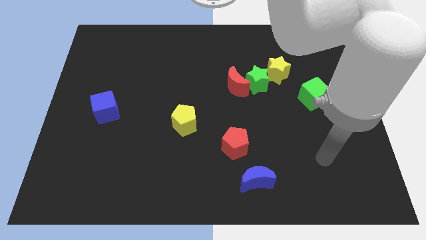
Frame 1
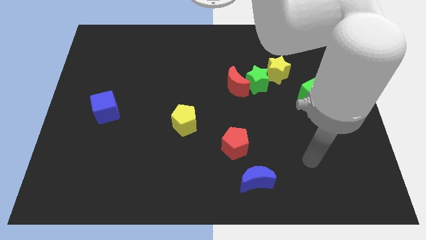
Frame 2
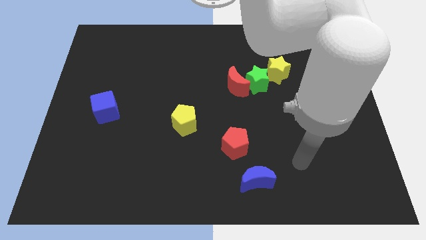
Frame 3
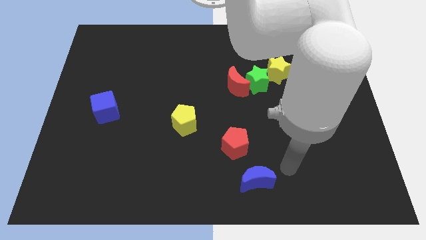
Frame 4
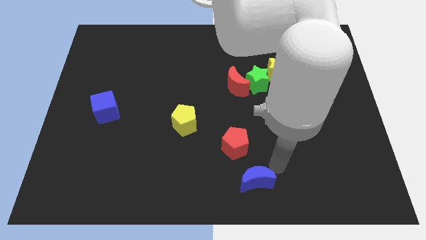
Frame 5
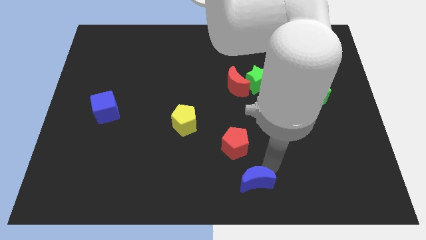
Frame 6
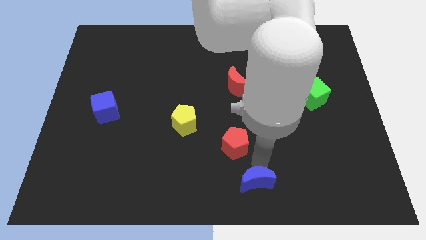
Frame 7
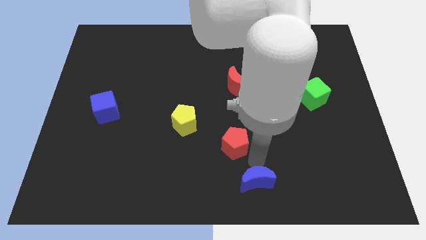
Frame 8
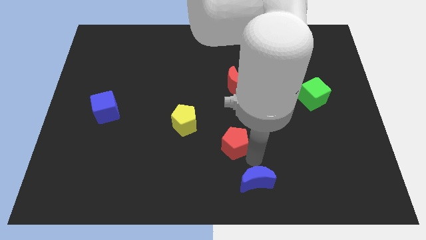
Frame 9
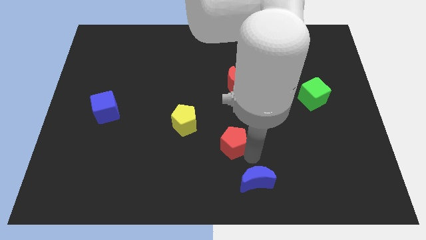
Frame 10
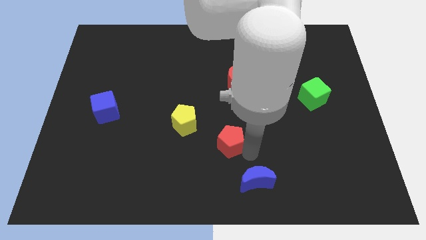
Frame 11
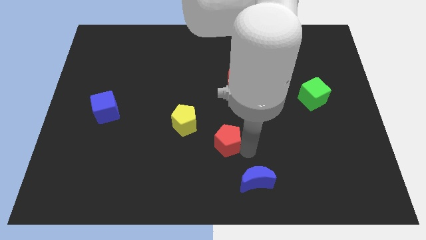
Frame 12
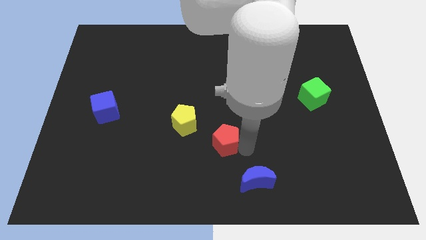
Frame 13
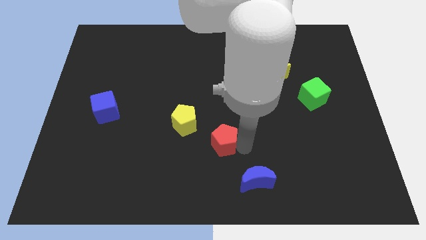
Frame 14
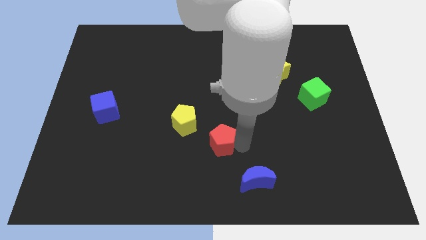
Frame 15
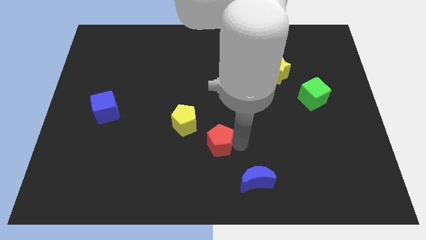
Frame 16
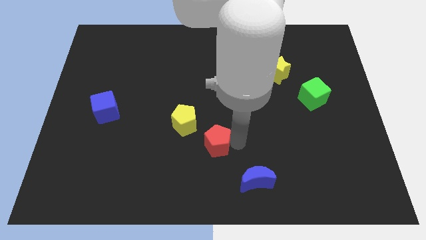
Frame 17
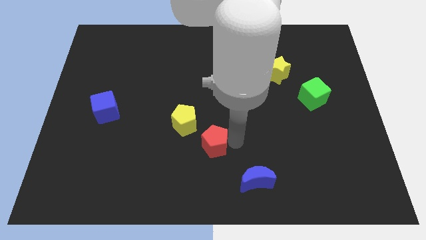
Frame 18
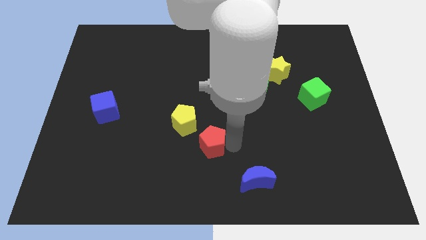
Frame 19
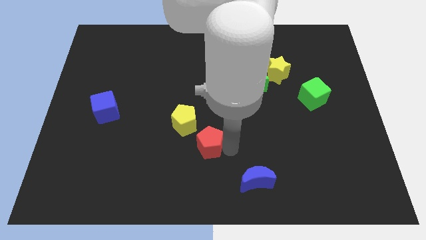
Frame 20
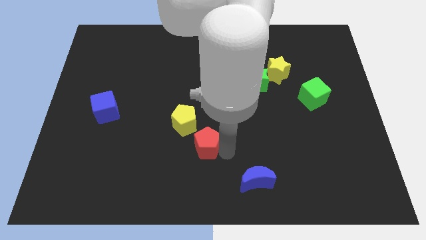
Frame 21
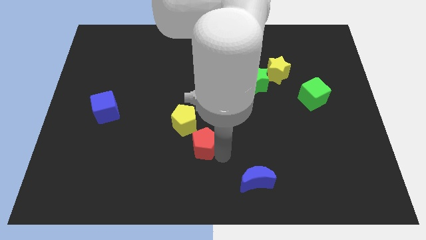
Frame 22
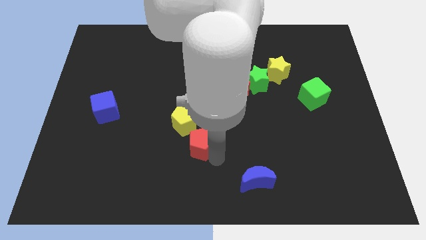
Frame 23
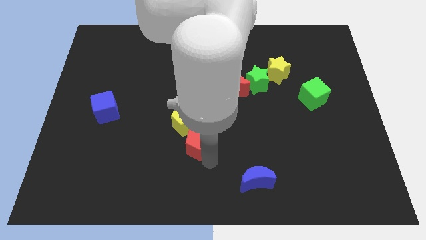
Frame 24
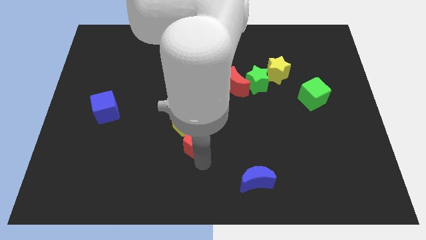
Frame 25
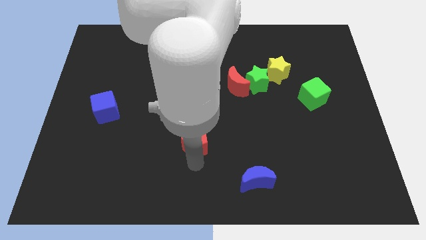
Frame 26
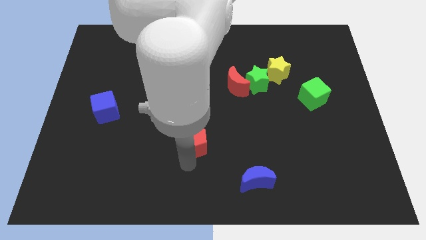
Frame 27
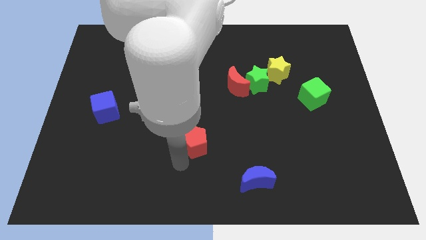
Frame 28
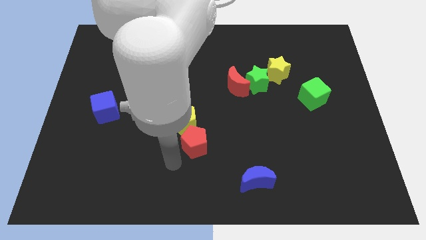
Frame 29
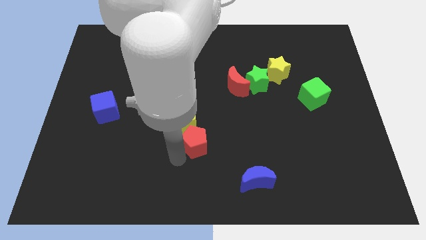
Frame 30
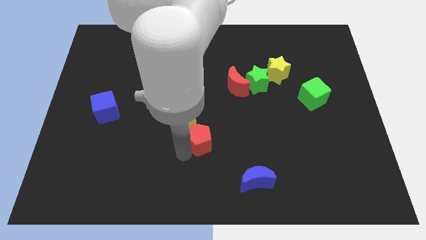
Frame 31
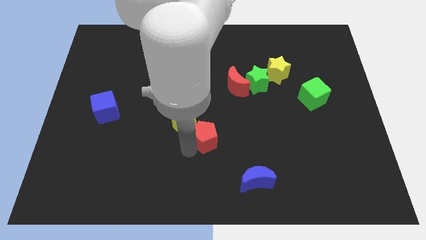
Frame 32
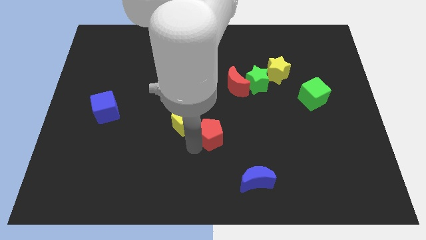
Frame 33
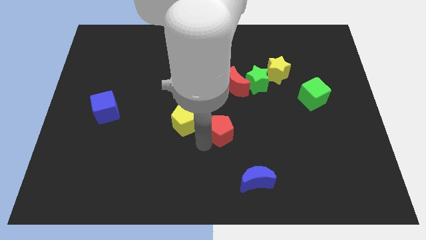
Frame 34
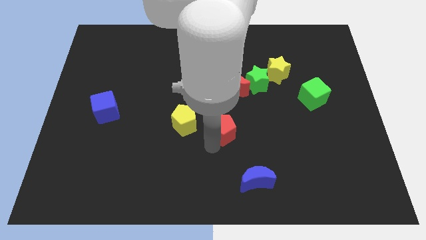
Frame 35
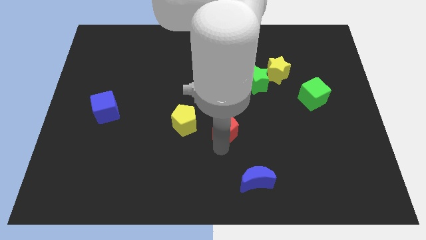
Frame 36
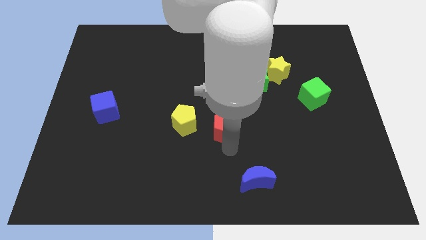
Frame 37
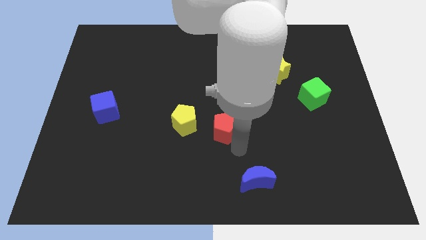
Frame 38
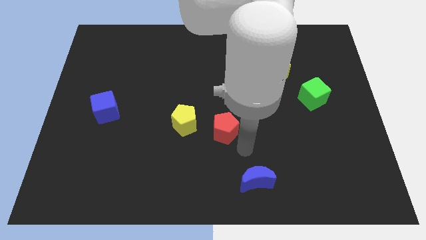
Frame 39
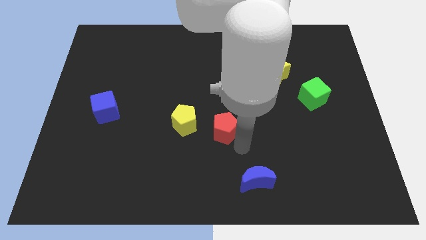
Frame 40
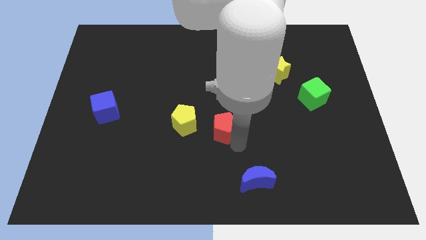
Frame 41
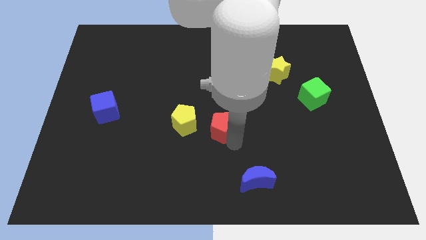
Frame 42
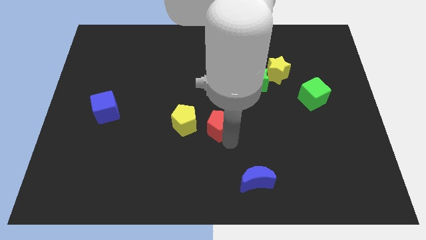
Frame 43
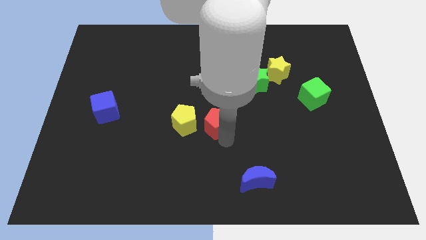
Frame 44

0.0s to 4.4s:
push the red pentagon a bit upwards and then to the left

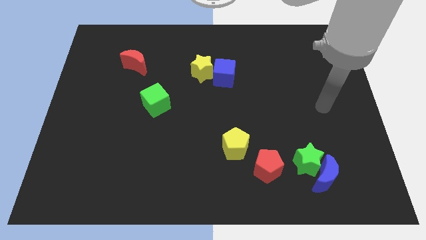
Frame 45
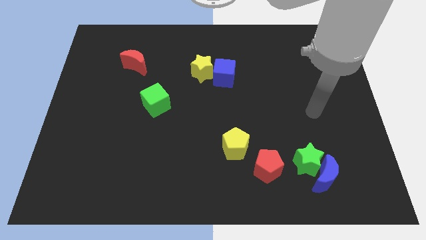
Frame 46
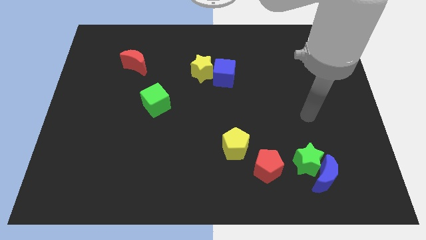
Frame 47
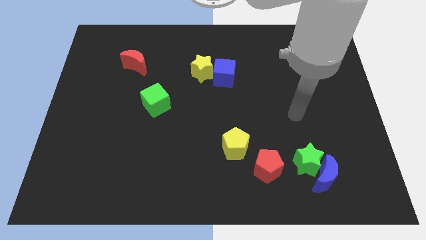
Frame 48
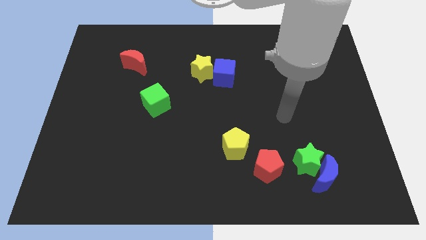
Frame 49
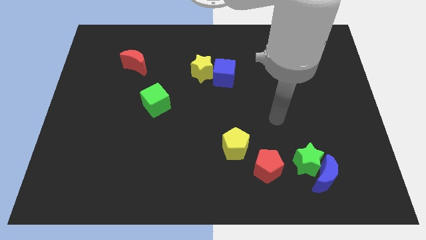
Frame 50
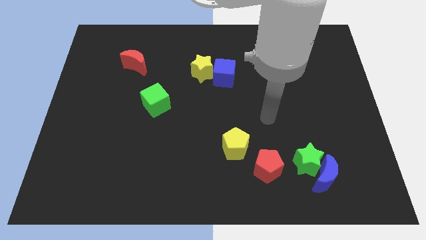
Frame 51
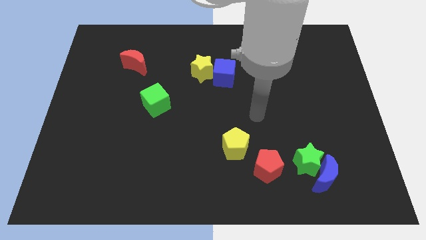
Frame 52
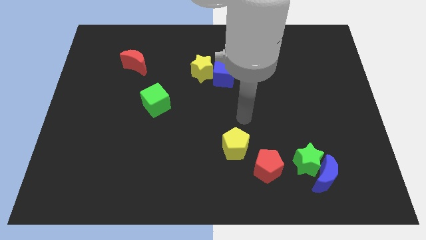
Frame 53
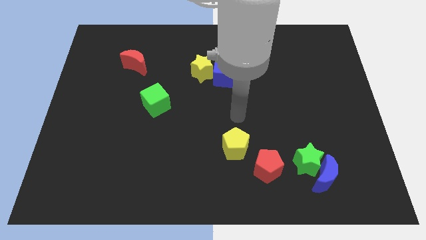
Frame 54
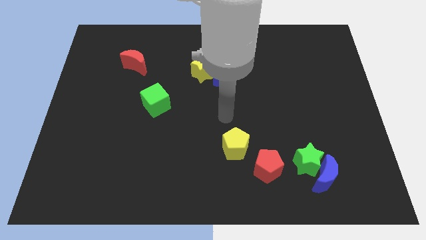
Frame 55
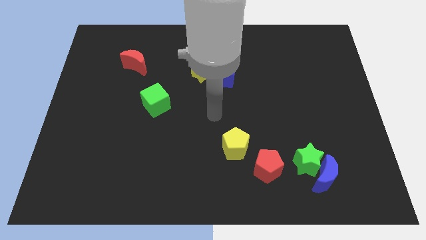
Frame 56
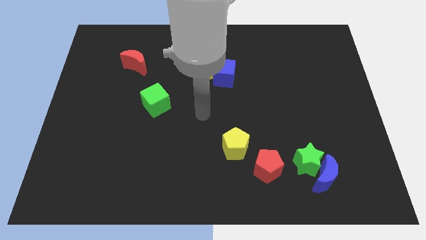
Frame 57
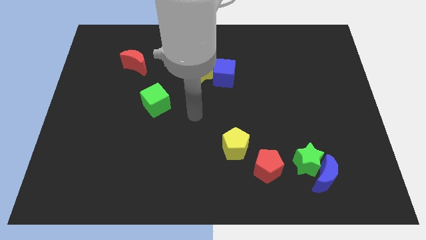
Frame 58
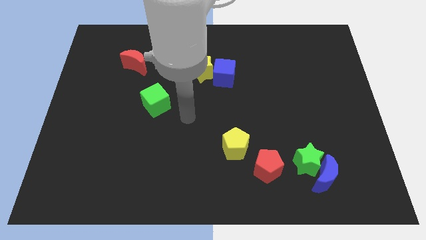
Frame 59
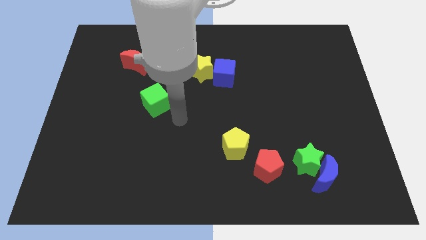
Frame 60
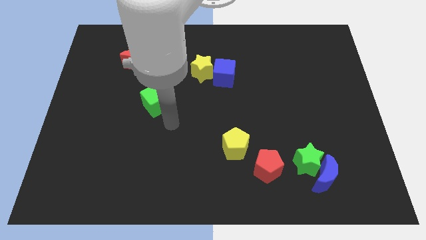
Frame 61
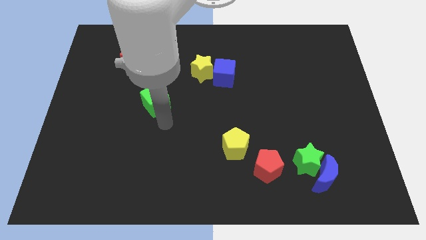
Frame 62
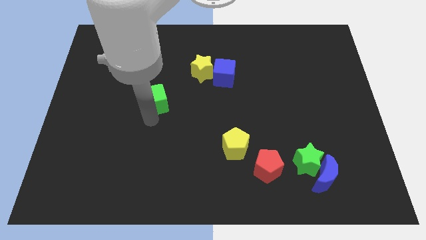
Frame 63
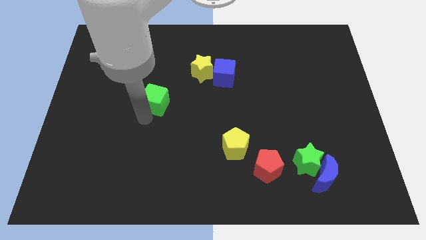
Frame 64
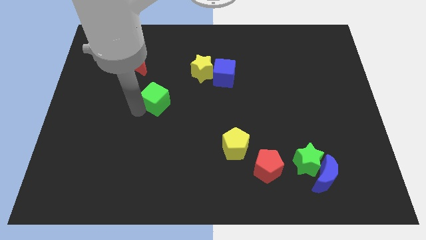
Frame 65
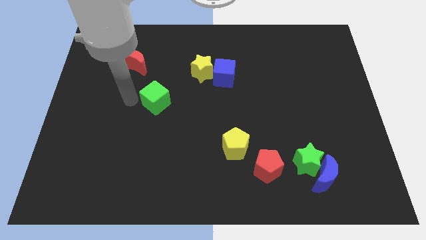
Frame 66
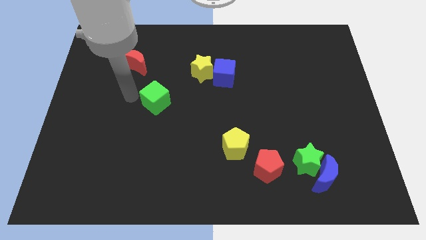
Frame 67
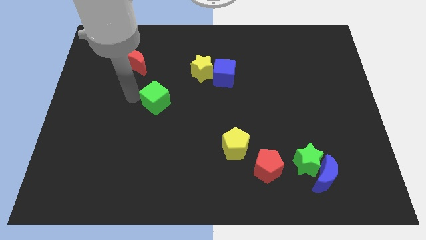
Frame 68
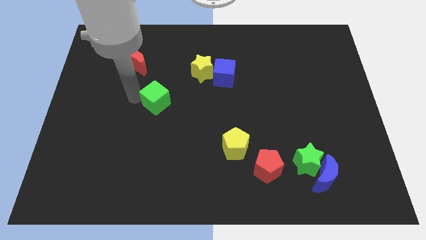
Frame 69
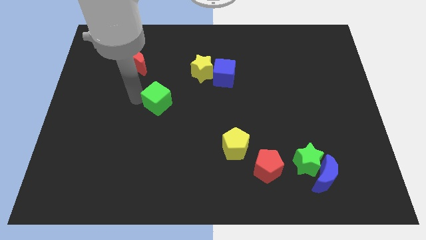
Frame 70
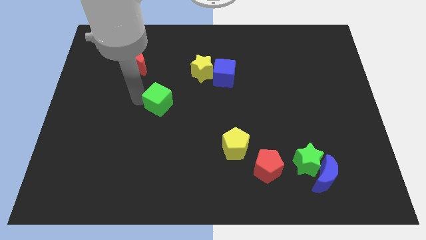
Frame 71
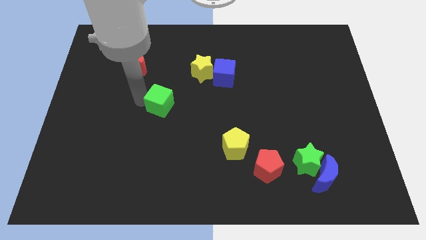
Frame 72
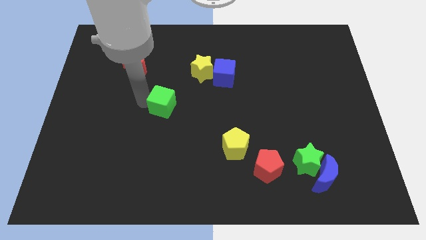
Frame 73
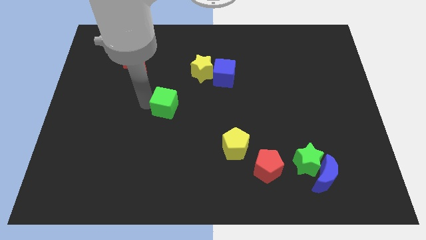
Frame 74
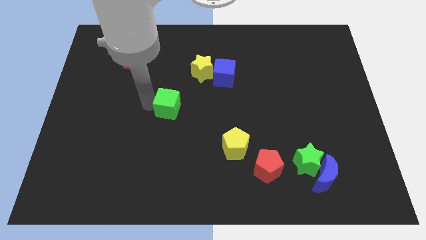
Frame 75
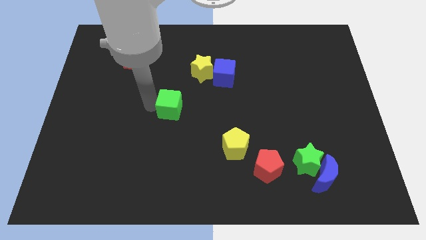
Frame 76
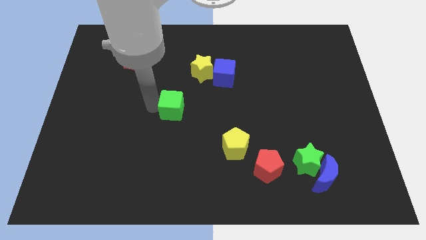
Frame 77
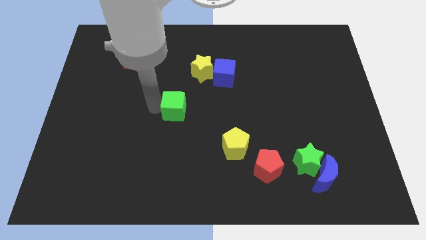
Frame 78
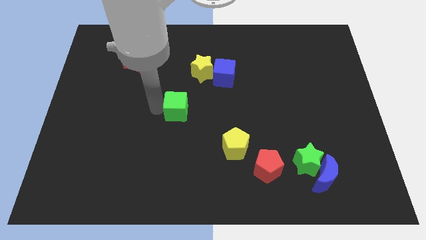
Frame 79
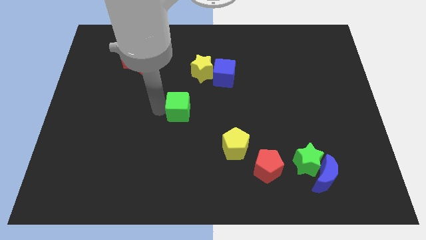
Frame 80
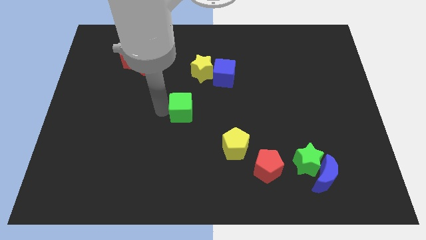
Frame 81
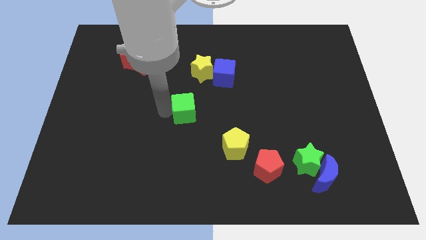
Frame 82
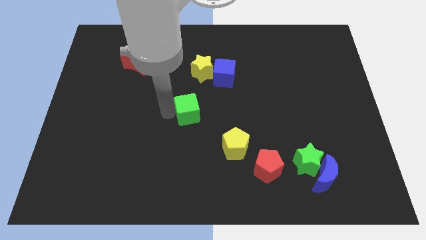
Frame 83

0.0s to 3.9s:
slightly move the green cube right

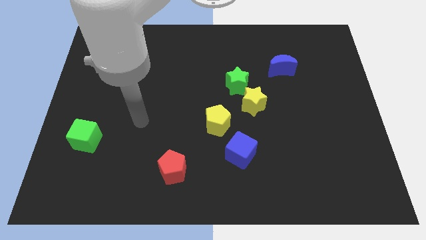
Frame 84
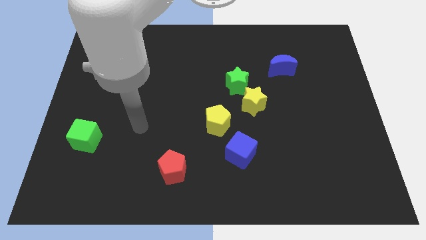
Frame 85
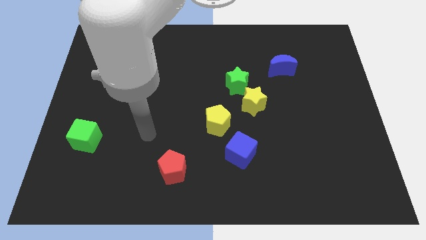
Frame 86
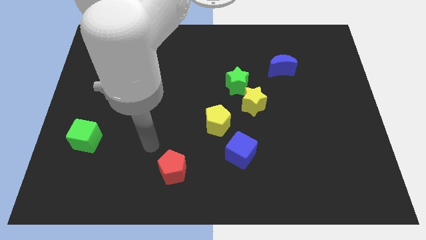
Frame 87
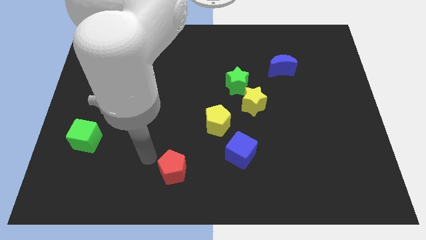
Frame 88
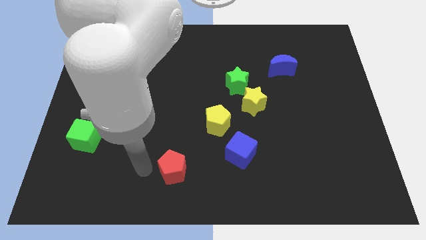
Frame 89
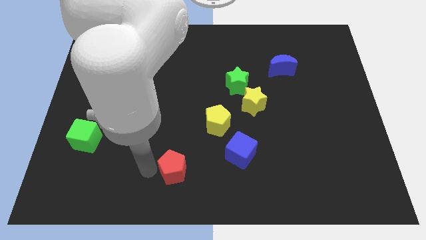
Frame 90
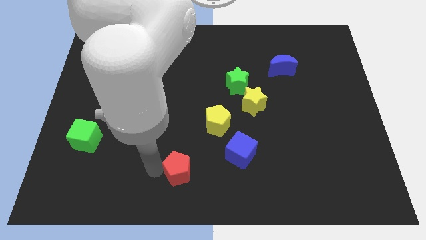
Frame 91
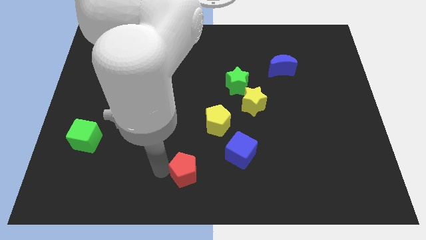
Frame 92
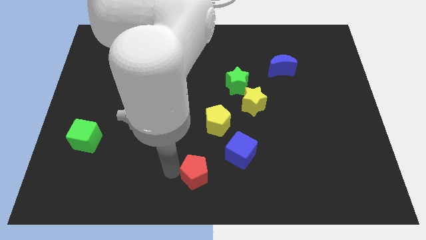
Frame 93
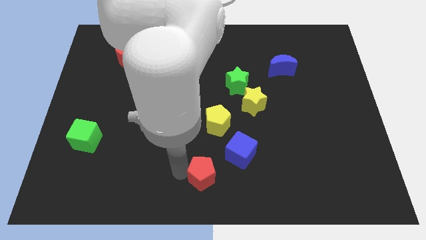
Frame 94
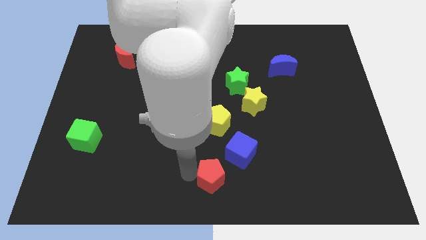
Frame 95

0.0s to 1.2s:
move the red pentagon slightly to the right
